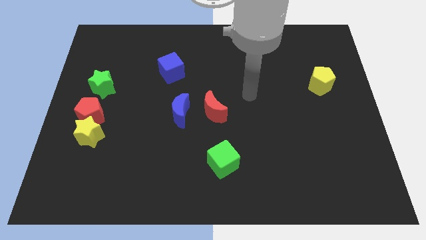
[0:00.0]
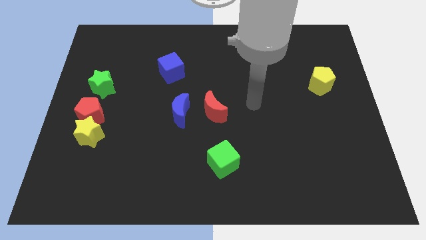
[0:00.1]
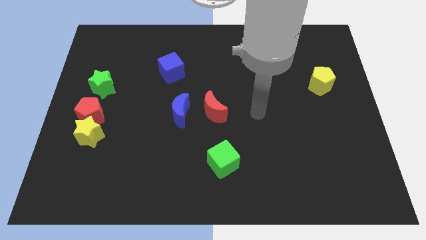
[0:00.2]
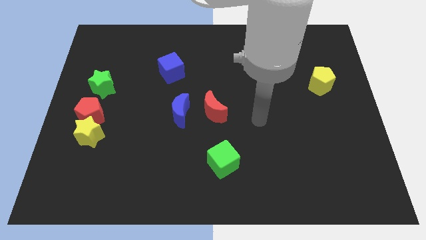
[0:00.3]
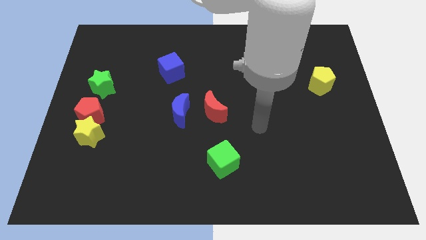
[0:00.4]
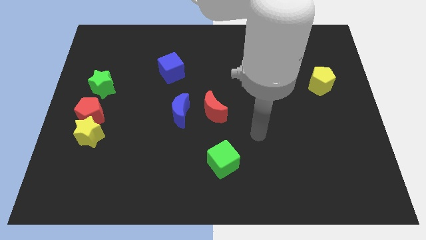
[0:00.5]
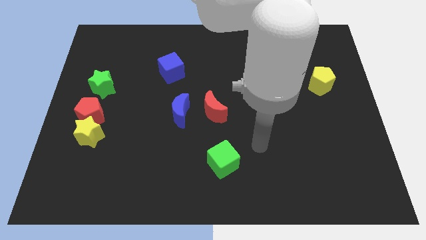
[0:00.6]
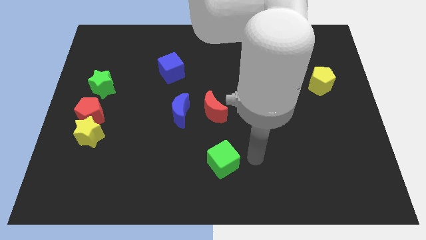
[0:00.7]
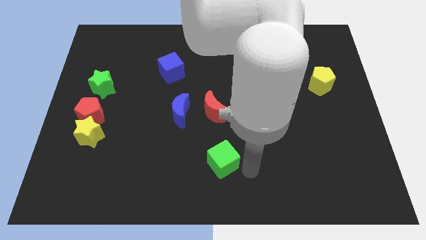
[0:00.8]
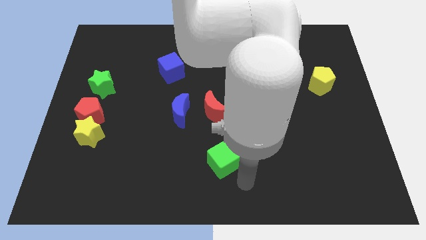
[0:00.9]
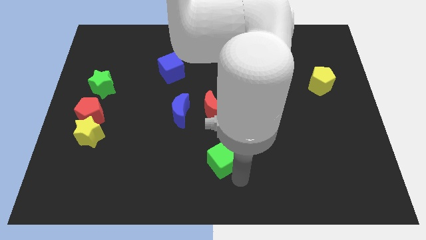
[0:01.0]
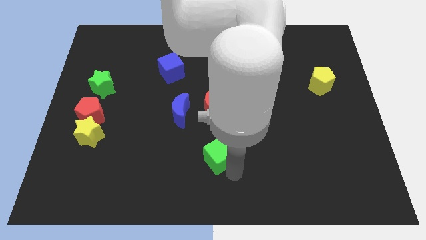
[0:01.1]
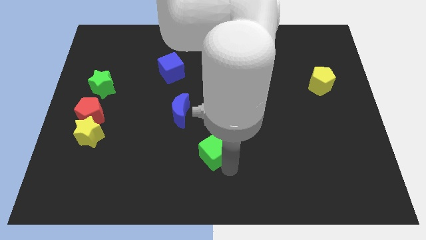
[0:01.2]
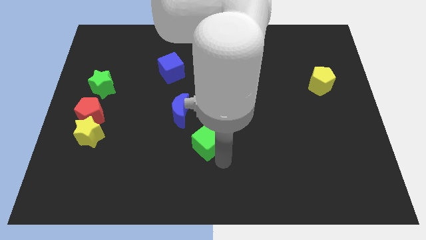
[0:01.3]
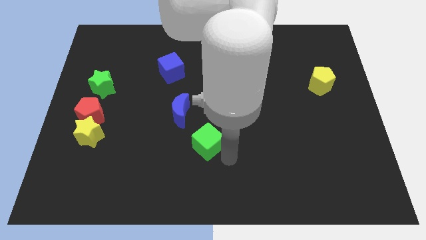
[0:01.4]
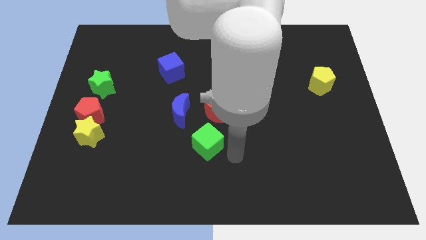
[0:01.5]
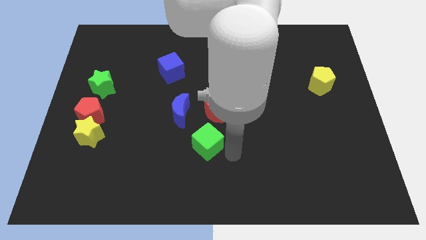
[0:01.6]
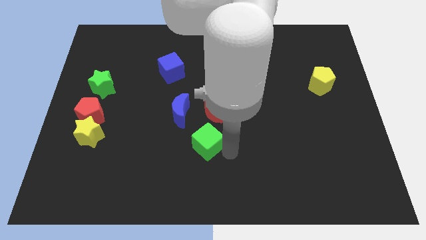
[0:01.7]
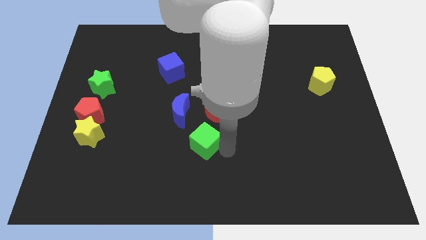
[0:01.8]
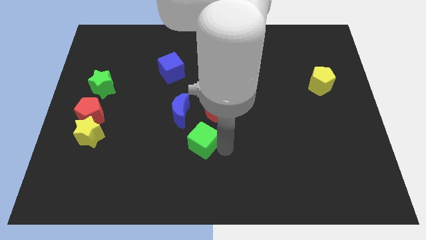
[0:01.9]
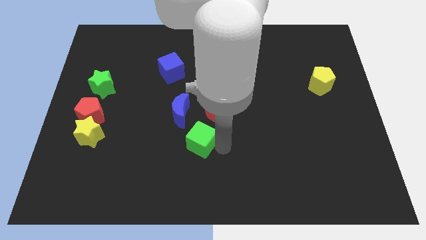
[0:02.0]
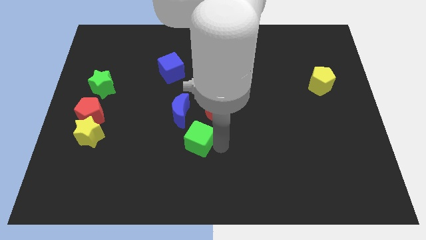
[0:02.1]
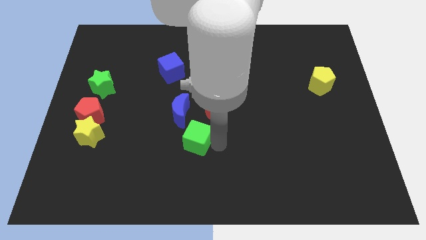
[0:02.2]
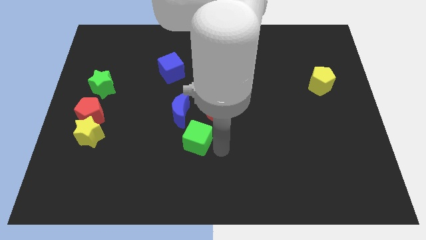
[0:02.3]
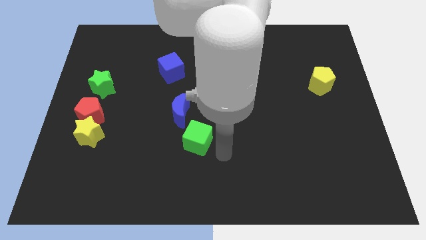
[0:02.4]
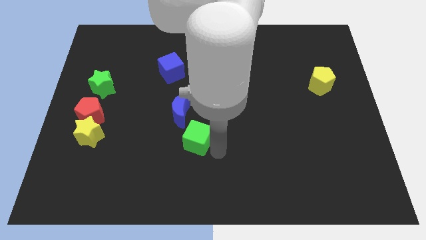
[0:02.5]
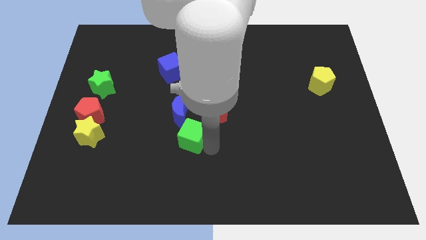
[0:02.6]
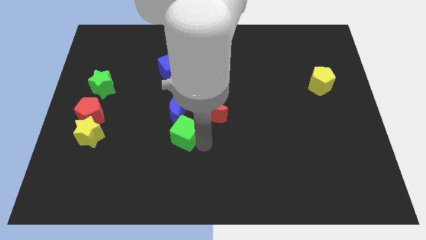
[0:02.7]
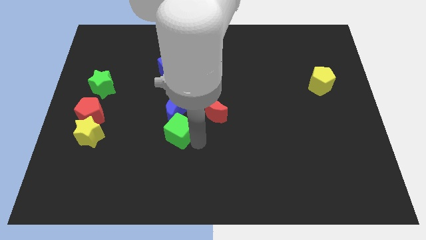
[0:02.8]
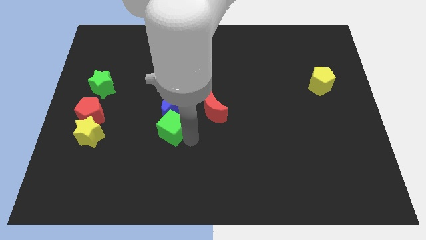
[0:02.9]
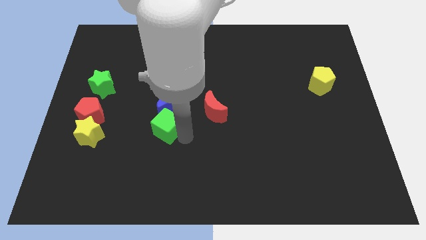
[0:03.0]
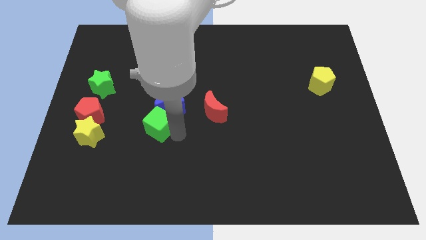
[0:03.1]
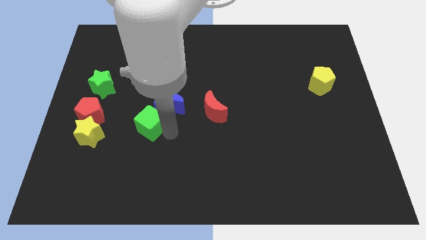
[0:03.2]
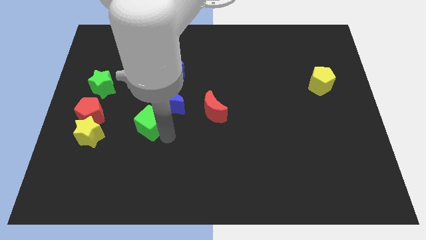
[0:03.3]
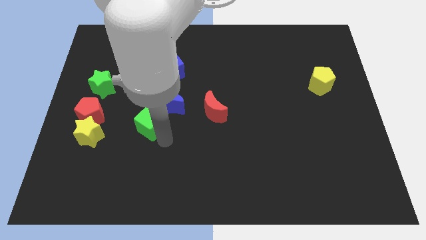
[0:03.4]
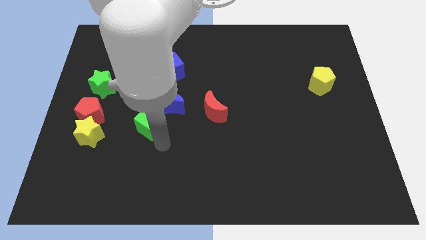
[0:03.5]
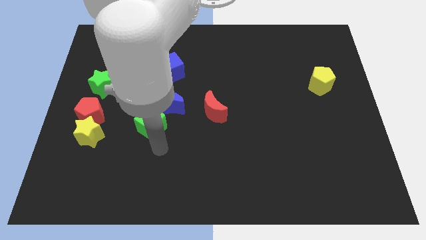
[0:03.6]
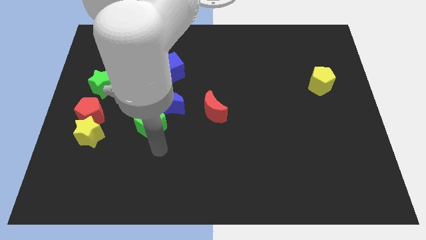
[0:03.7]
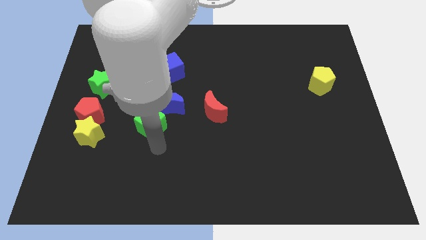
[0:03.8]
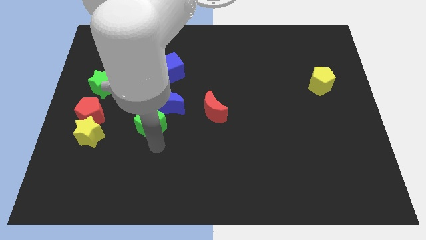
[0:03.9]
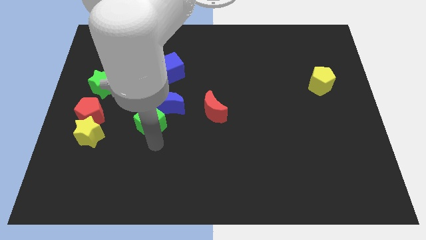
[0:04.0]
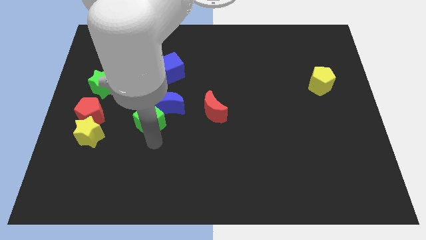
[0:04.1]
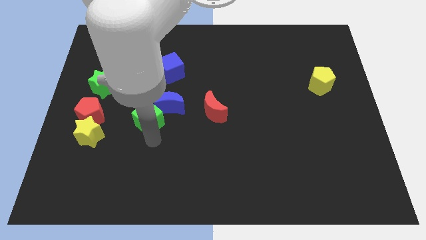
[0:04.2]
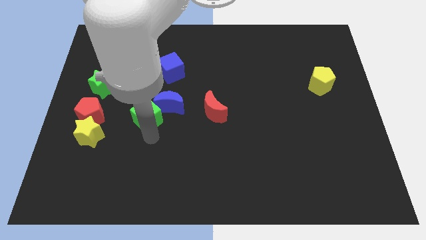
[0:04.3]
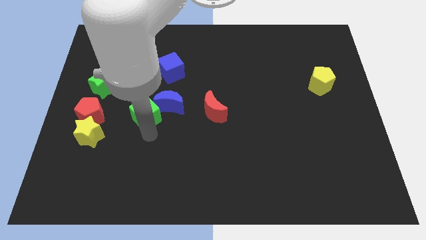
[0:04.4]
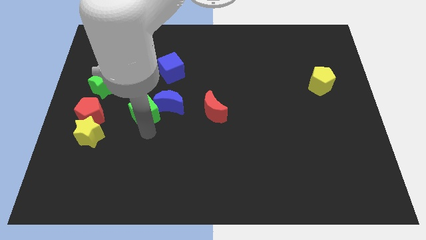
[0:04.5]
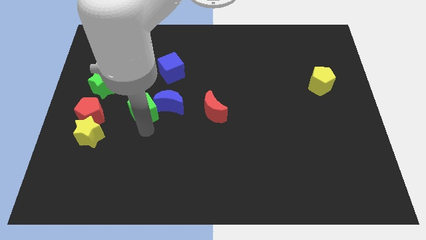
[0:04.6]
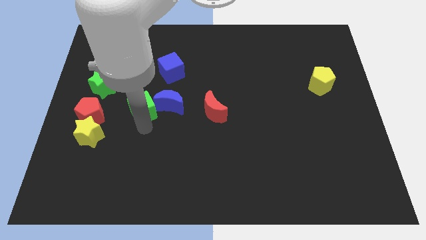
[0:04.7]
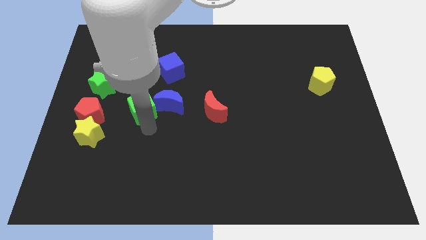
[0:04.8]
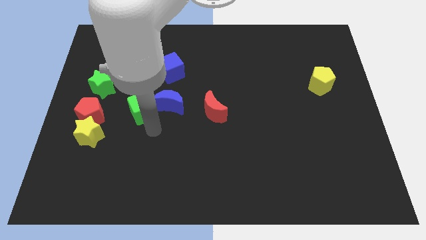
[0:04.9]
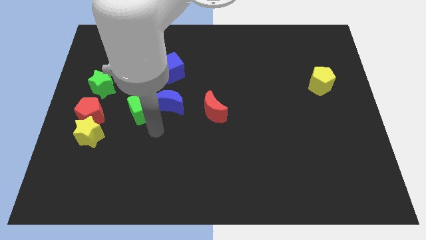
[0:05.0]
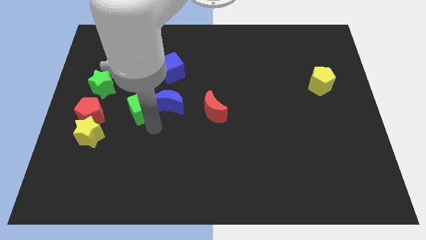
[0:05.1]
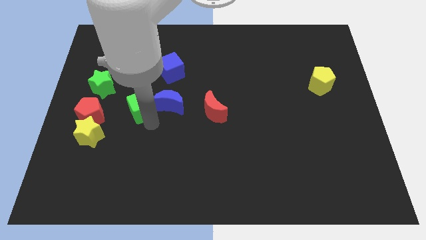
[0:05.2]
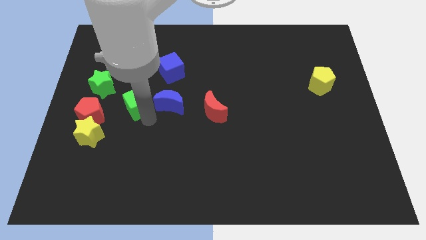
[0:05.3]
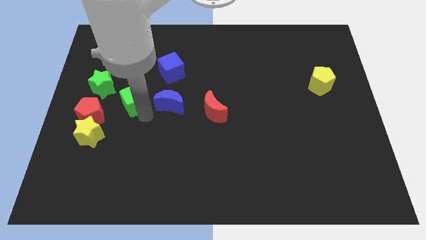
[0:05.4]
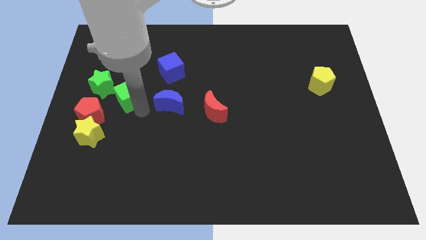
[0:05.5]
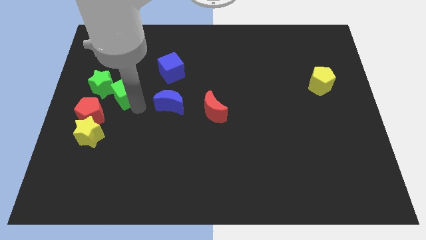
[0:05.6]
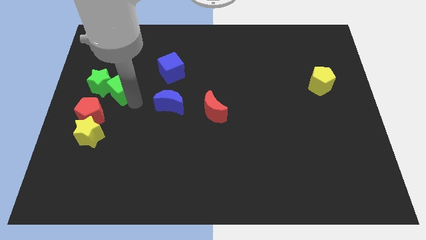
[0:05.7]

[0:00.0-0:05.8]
put the green cube close to the green star

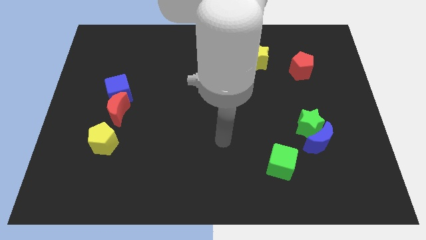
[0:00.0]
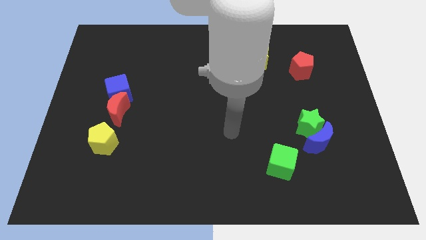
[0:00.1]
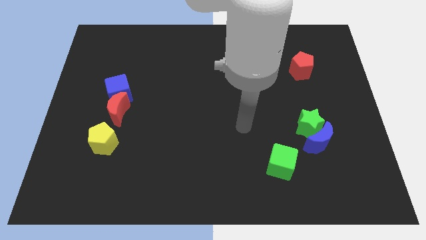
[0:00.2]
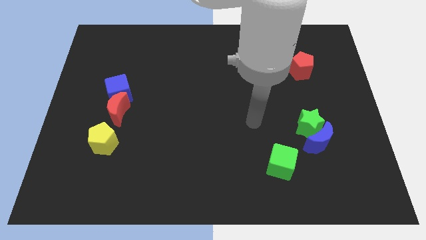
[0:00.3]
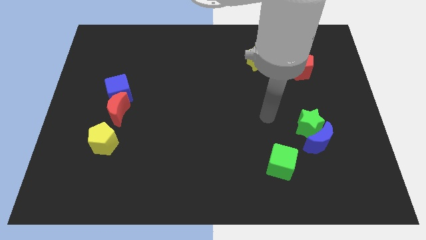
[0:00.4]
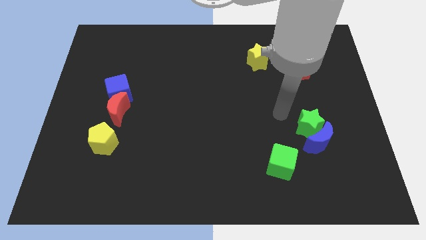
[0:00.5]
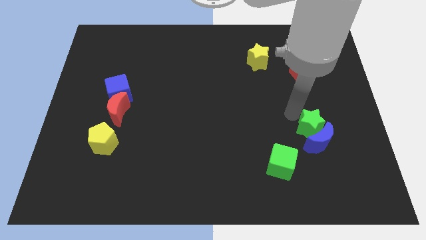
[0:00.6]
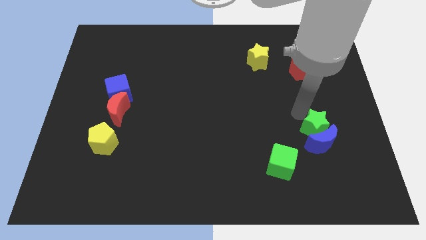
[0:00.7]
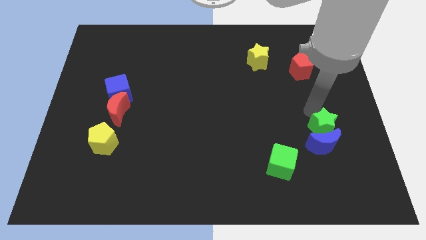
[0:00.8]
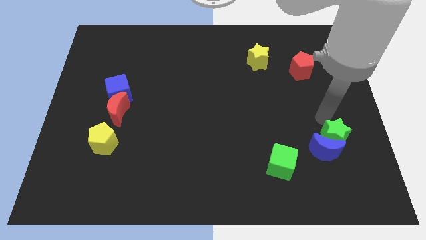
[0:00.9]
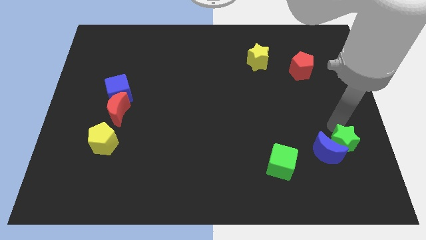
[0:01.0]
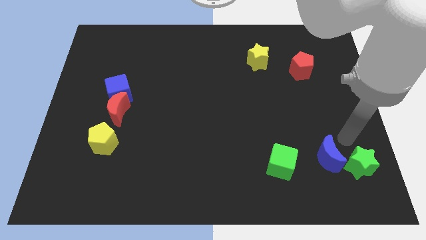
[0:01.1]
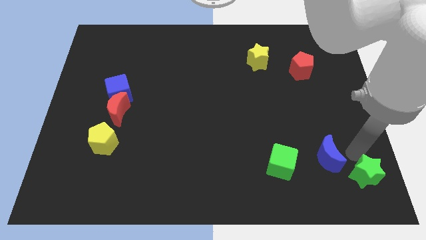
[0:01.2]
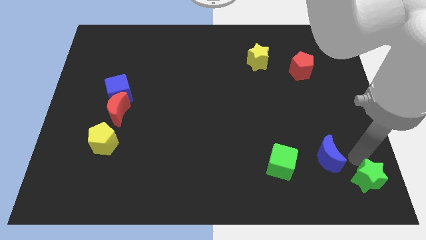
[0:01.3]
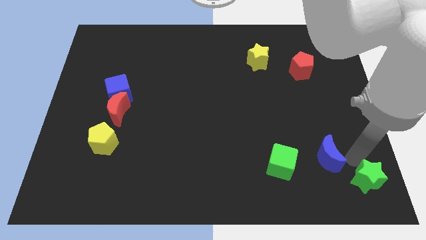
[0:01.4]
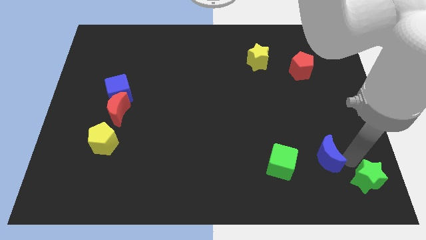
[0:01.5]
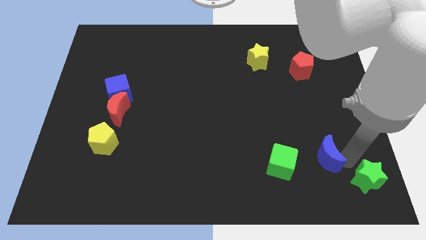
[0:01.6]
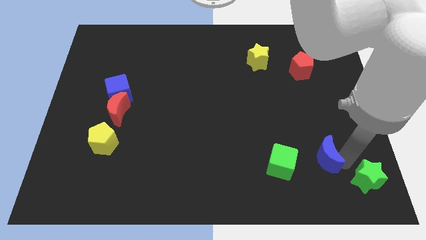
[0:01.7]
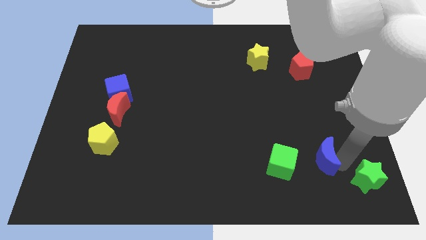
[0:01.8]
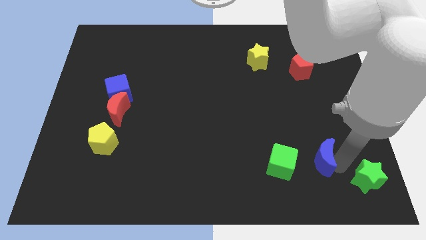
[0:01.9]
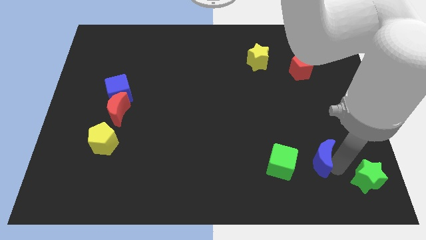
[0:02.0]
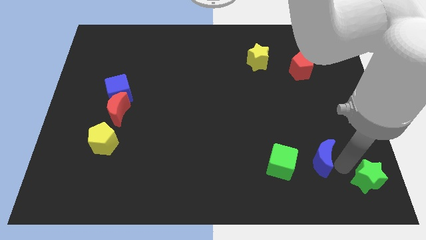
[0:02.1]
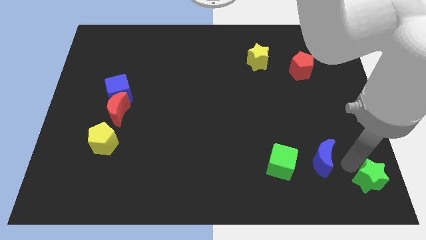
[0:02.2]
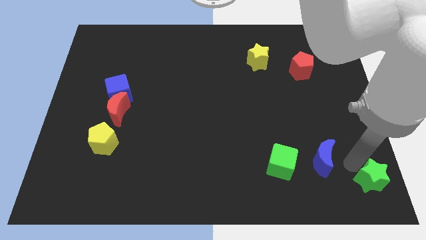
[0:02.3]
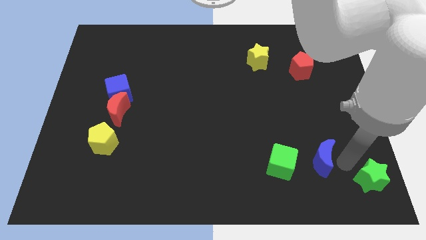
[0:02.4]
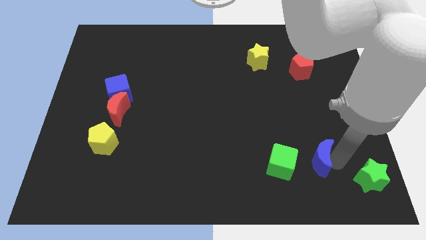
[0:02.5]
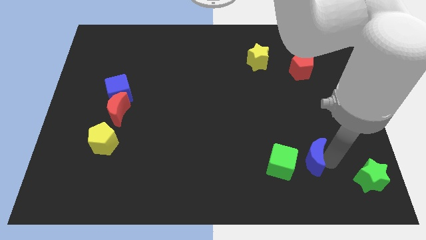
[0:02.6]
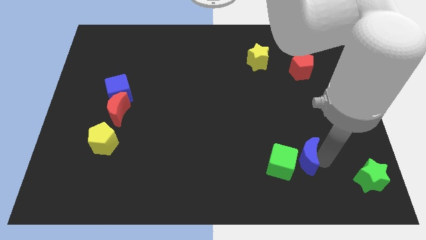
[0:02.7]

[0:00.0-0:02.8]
put the blue moon to the green cube
